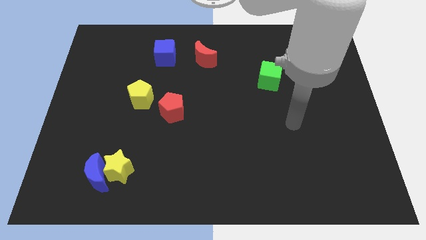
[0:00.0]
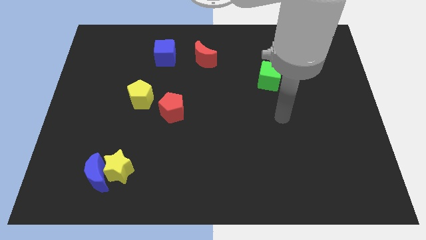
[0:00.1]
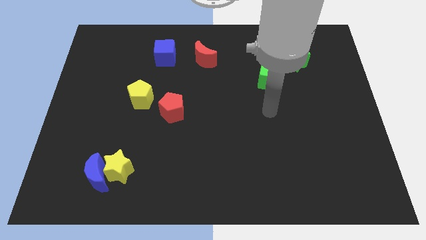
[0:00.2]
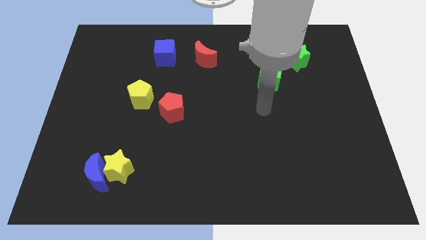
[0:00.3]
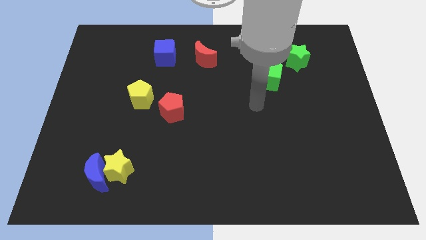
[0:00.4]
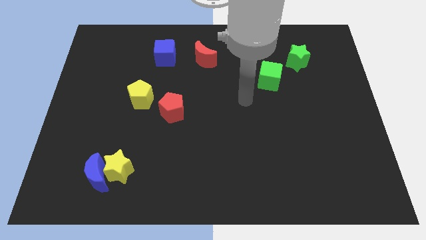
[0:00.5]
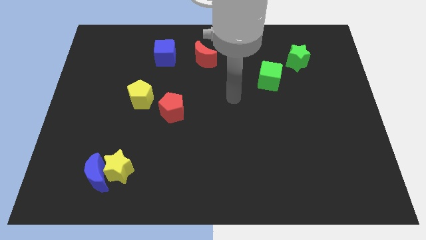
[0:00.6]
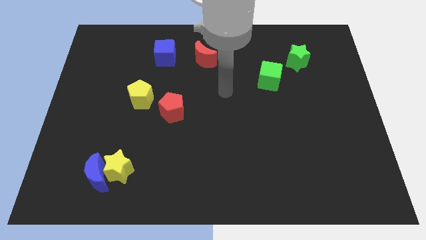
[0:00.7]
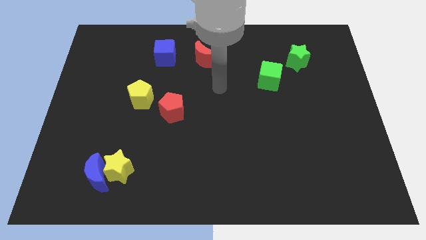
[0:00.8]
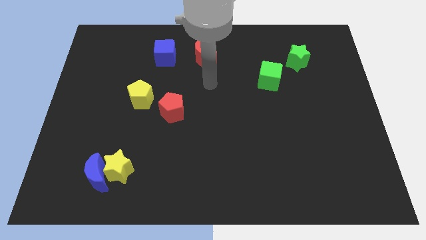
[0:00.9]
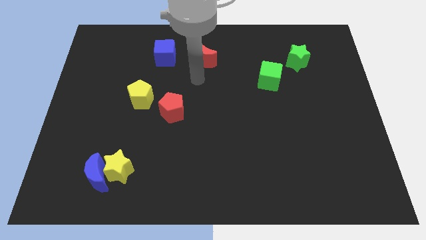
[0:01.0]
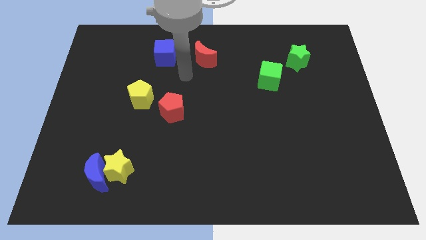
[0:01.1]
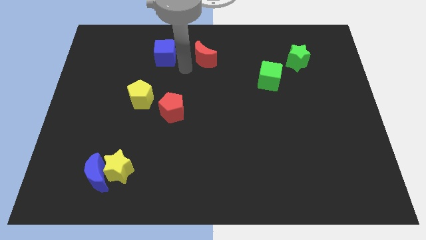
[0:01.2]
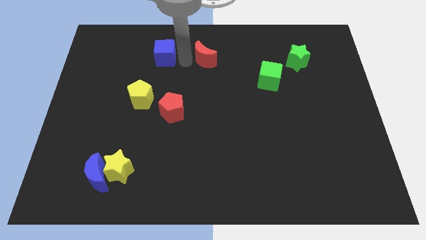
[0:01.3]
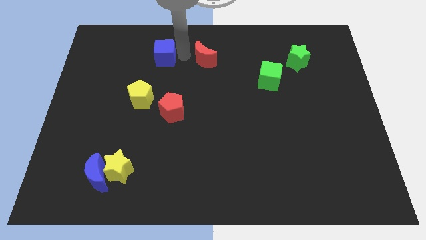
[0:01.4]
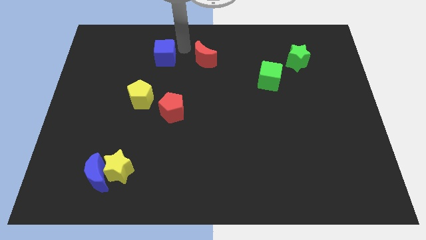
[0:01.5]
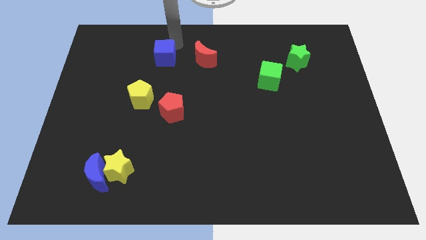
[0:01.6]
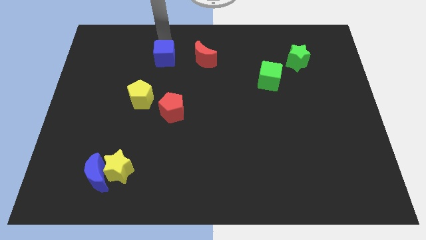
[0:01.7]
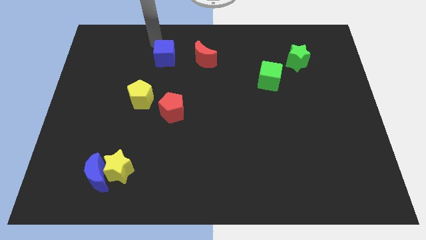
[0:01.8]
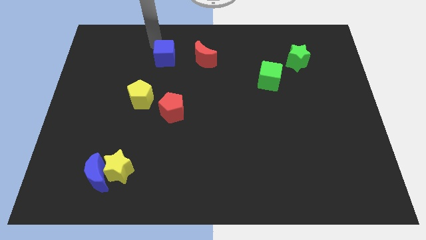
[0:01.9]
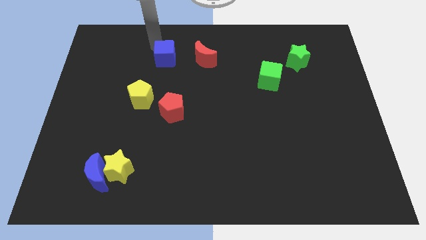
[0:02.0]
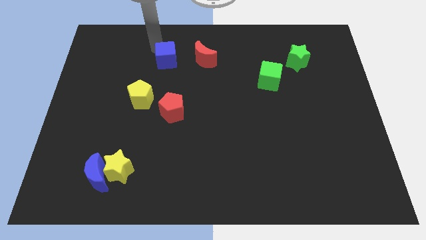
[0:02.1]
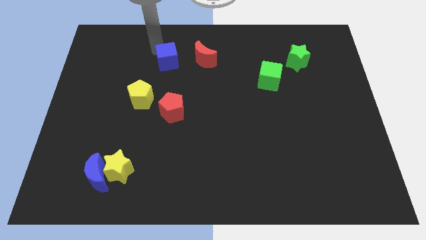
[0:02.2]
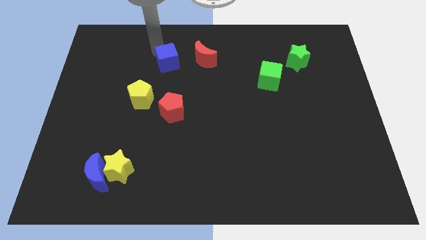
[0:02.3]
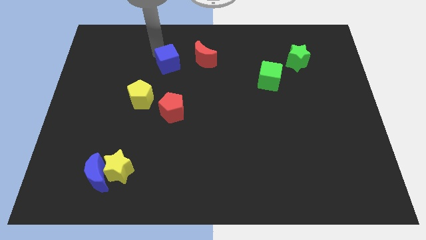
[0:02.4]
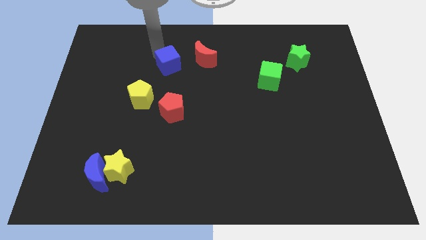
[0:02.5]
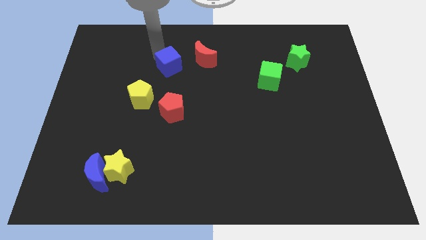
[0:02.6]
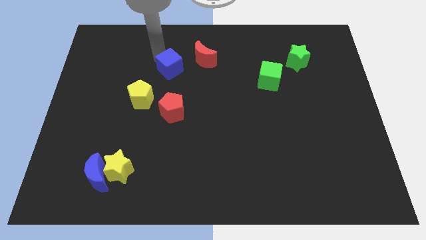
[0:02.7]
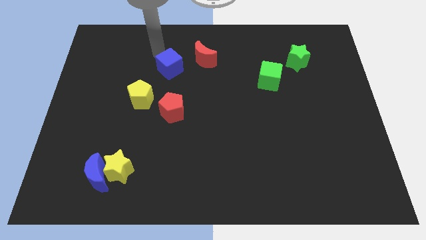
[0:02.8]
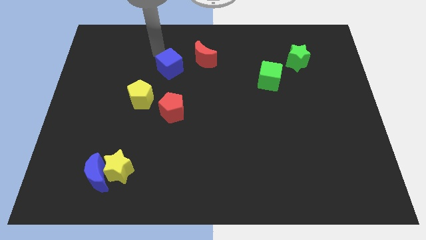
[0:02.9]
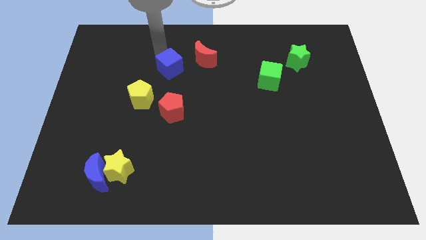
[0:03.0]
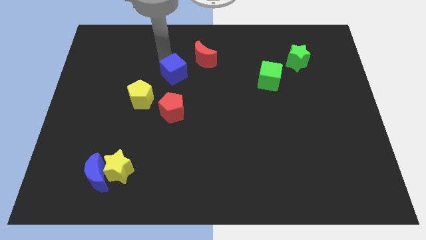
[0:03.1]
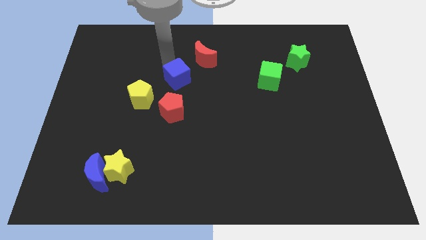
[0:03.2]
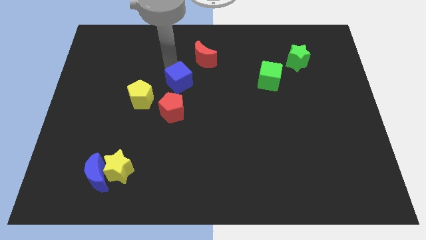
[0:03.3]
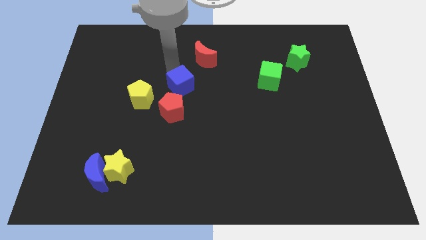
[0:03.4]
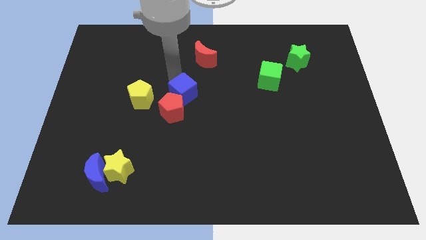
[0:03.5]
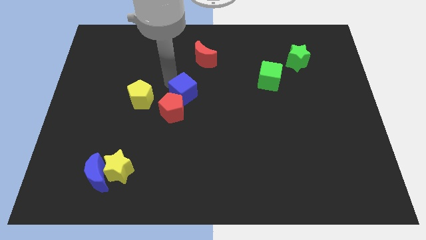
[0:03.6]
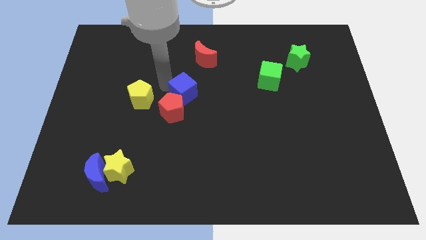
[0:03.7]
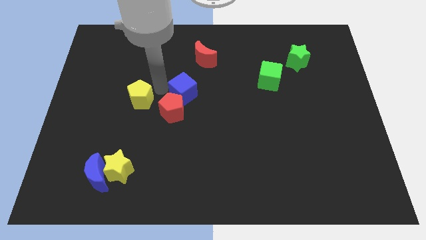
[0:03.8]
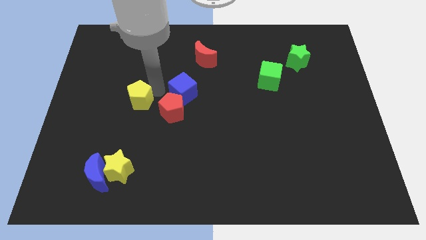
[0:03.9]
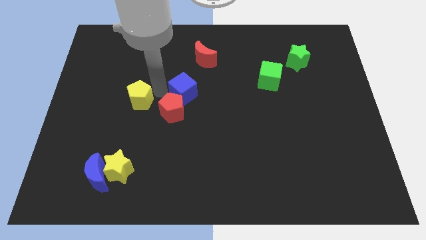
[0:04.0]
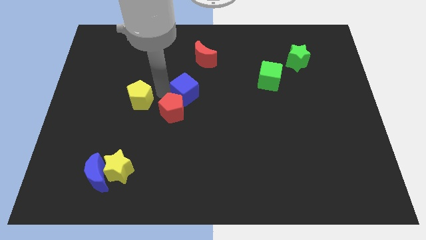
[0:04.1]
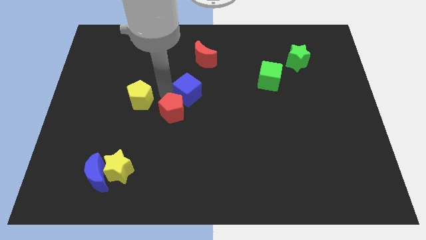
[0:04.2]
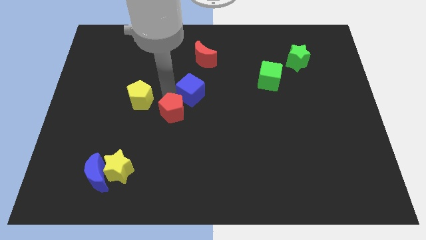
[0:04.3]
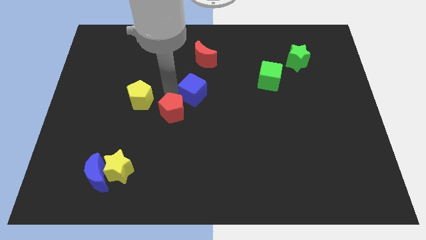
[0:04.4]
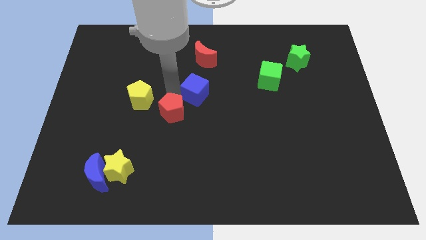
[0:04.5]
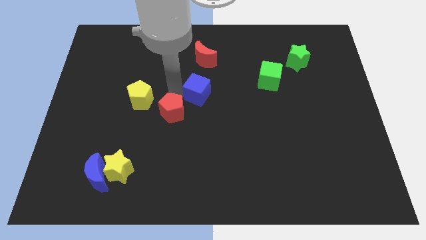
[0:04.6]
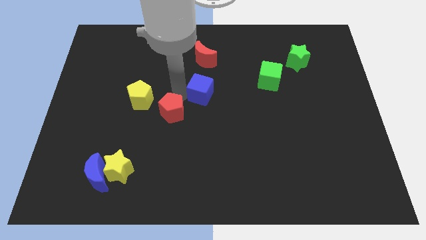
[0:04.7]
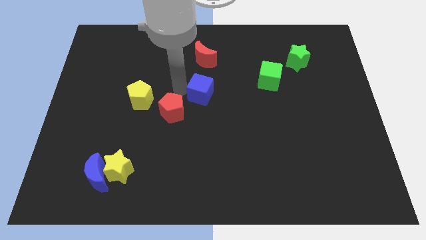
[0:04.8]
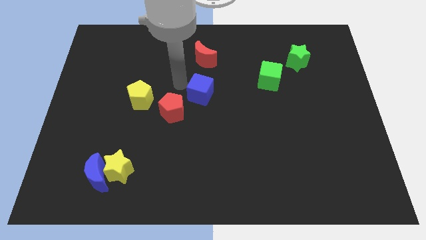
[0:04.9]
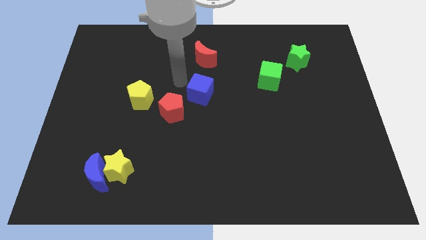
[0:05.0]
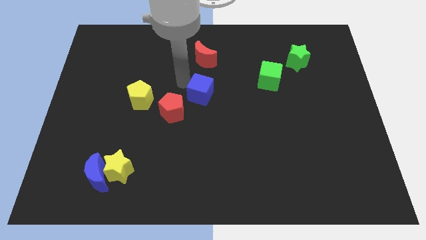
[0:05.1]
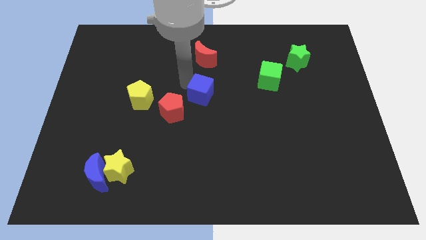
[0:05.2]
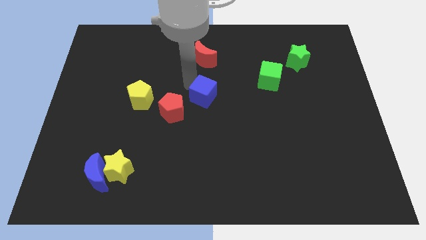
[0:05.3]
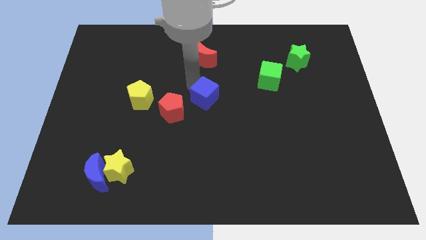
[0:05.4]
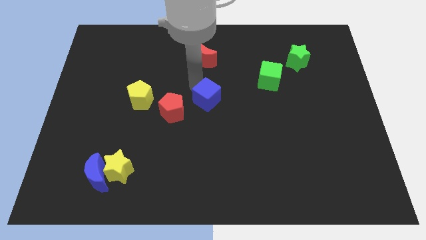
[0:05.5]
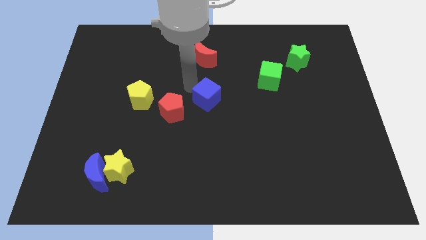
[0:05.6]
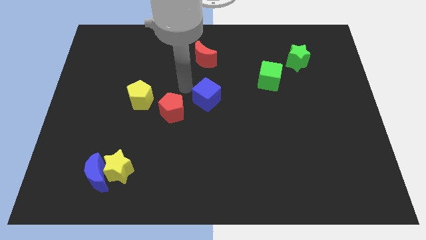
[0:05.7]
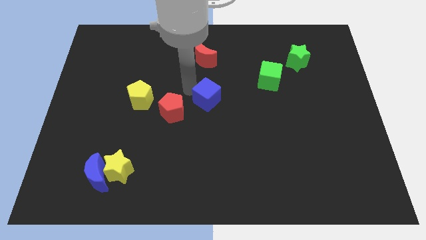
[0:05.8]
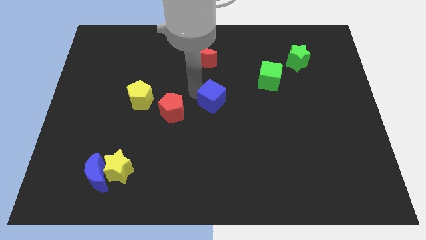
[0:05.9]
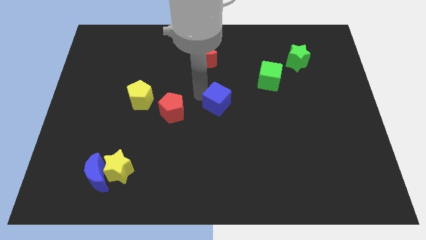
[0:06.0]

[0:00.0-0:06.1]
move the blue cube downwards and then to the right

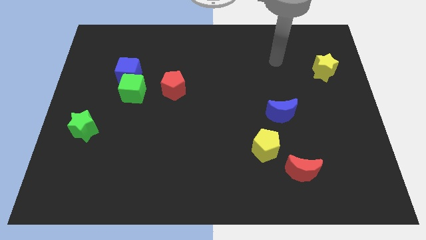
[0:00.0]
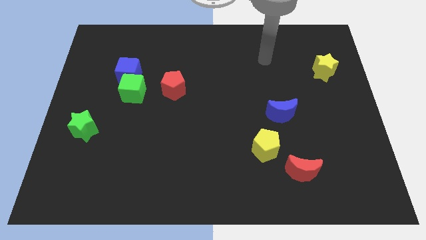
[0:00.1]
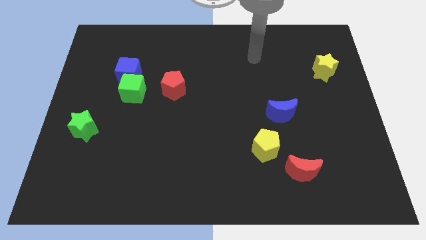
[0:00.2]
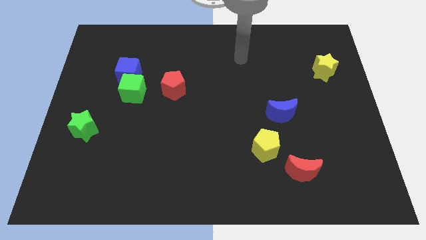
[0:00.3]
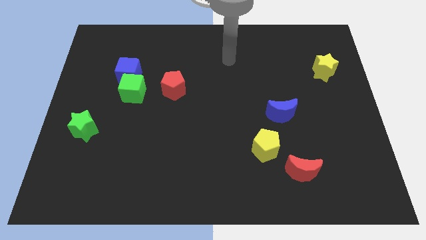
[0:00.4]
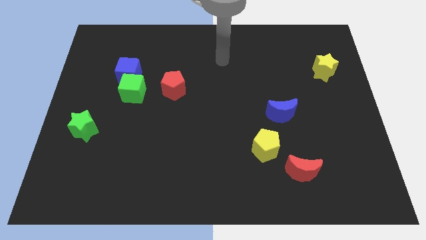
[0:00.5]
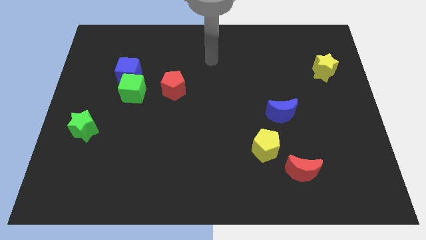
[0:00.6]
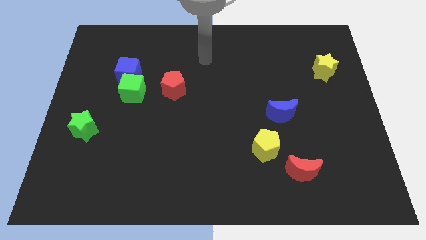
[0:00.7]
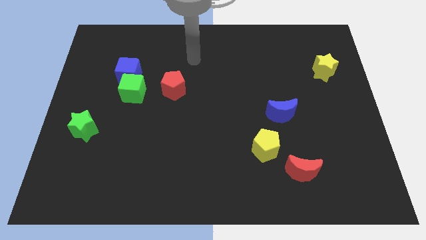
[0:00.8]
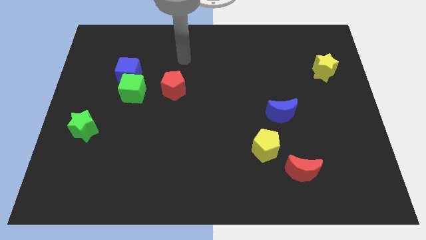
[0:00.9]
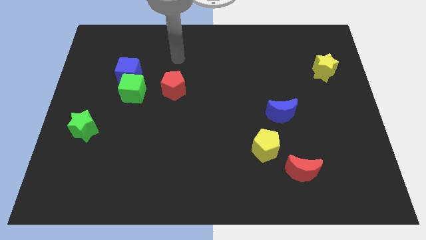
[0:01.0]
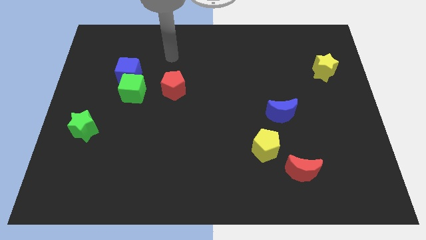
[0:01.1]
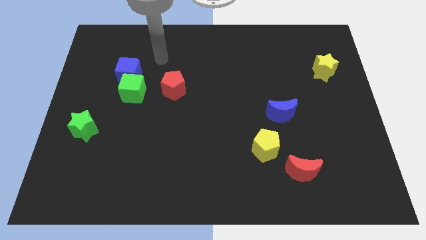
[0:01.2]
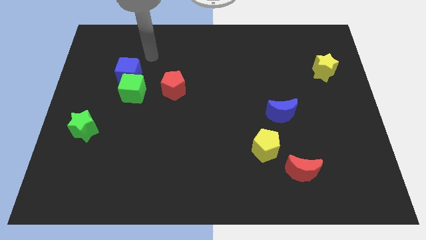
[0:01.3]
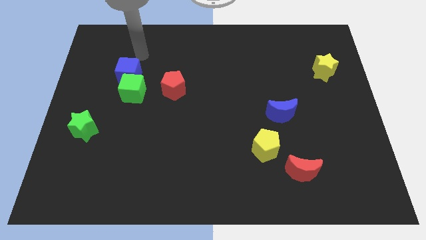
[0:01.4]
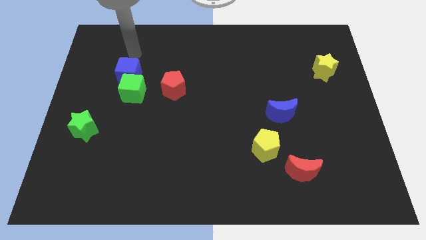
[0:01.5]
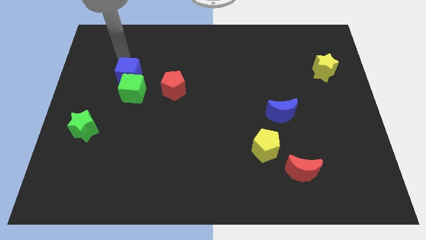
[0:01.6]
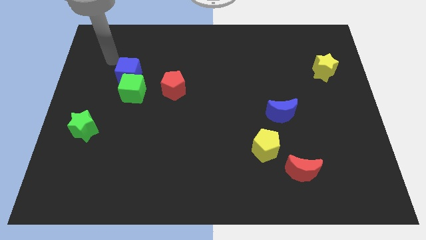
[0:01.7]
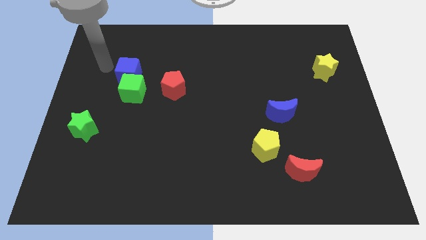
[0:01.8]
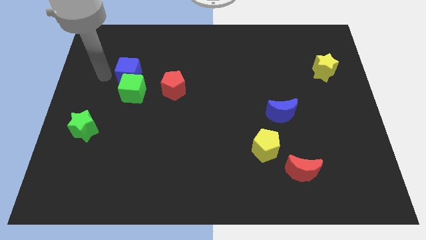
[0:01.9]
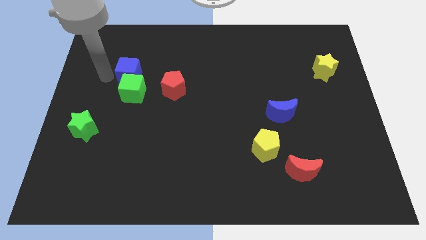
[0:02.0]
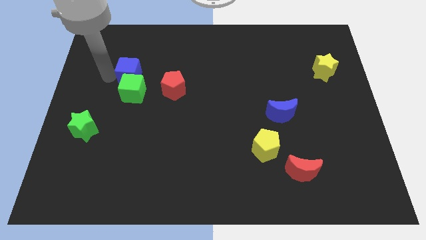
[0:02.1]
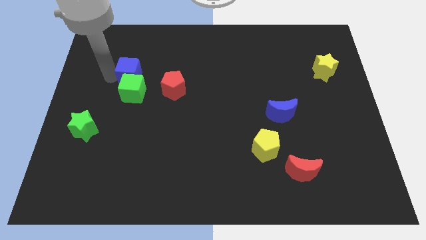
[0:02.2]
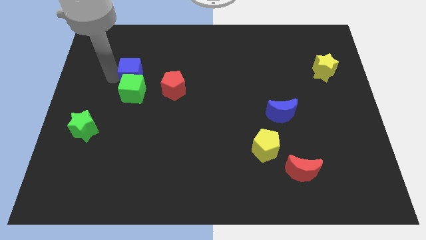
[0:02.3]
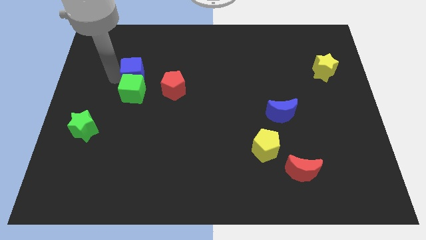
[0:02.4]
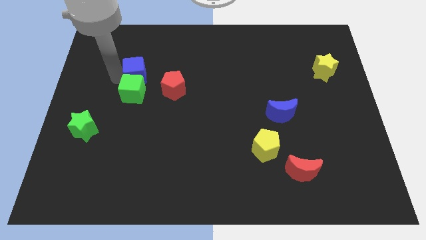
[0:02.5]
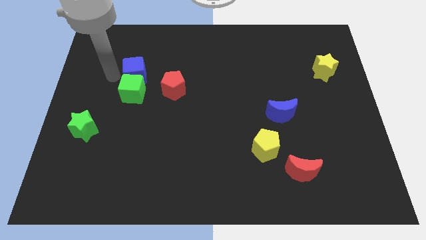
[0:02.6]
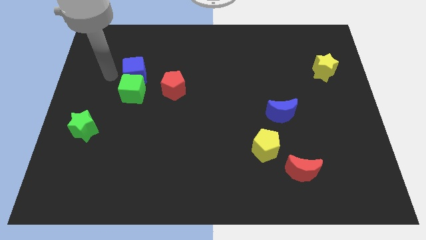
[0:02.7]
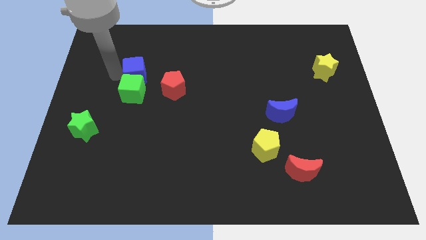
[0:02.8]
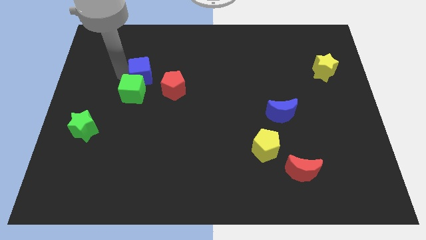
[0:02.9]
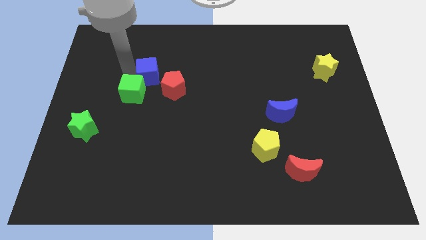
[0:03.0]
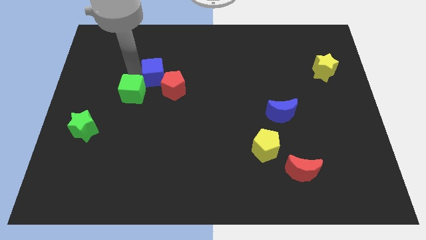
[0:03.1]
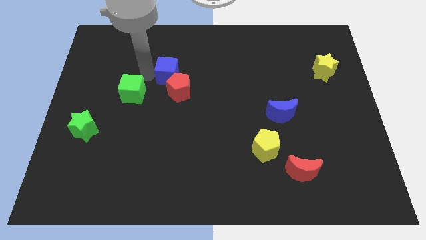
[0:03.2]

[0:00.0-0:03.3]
push the blue cube a little bit to the right
